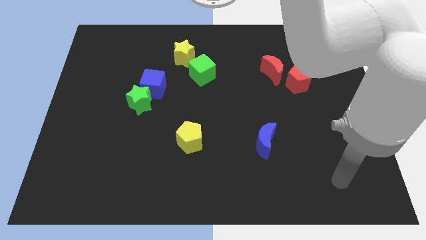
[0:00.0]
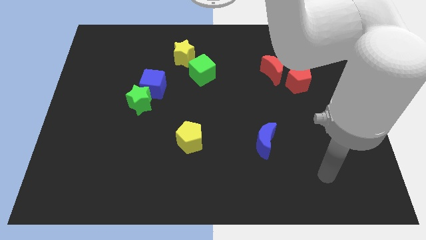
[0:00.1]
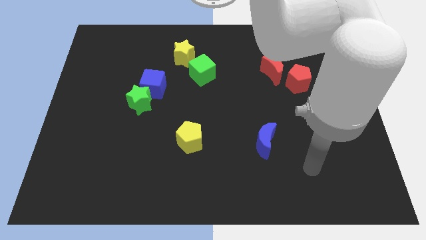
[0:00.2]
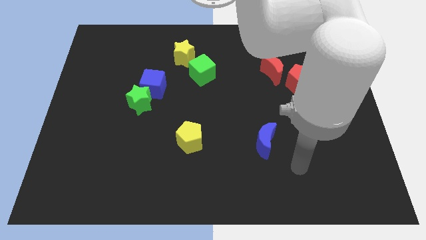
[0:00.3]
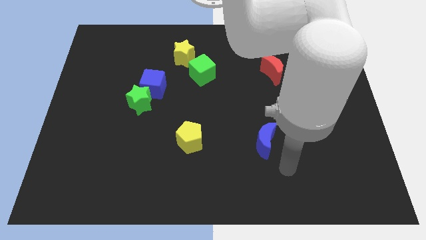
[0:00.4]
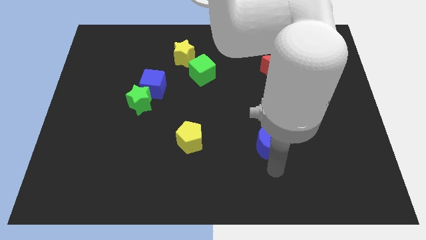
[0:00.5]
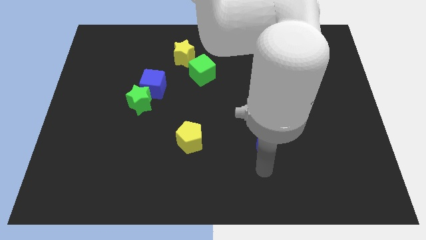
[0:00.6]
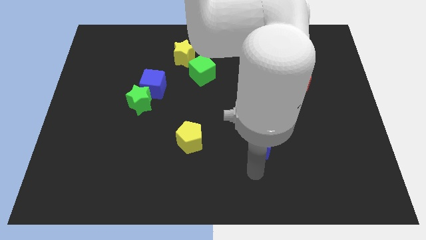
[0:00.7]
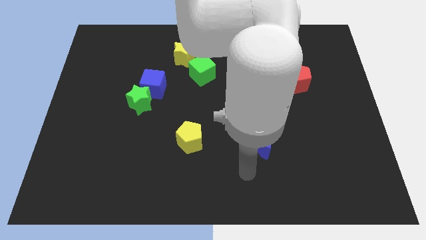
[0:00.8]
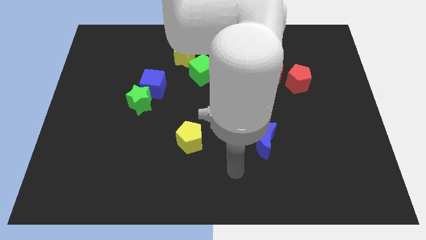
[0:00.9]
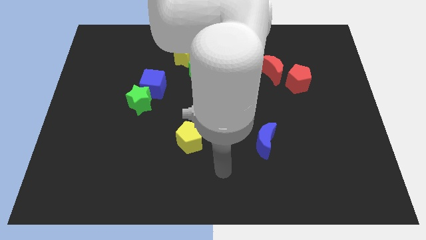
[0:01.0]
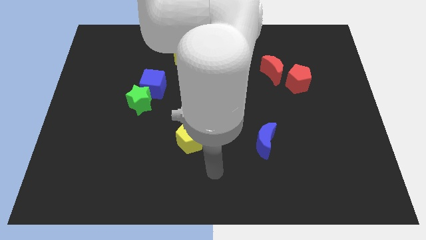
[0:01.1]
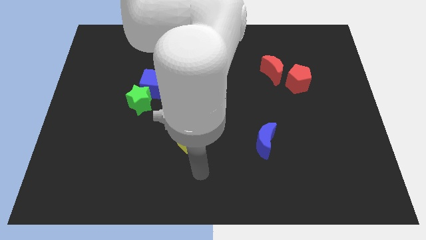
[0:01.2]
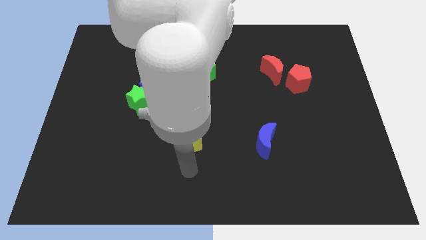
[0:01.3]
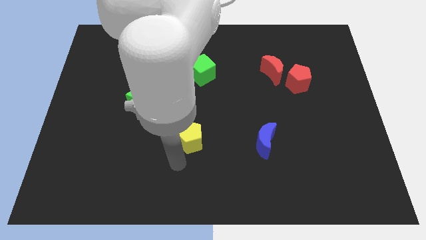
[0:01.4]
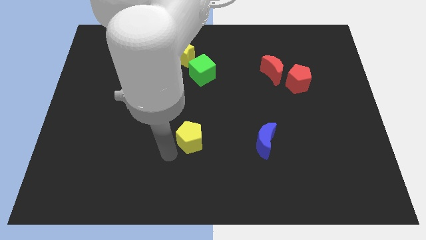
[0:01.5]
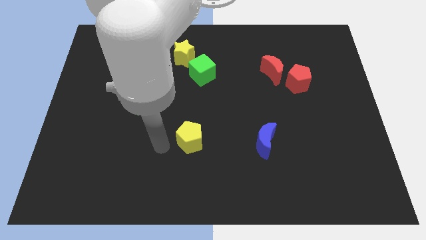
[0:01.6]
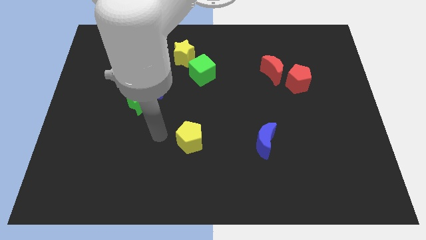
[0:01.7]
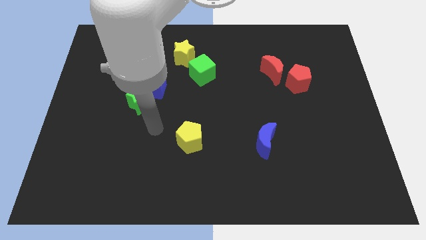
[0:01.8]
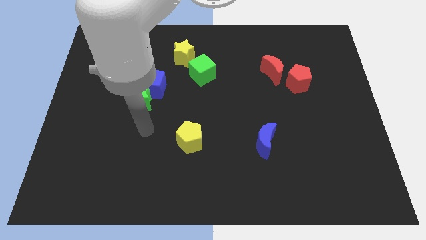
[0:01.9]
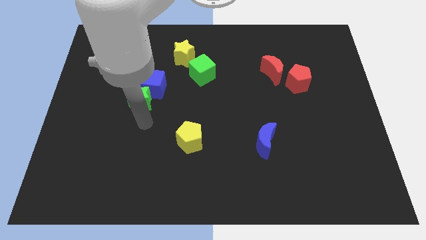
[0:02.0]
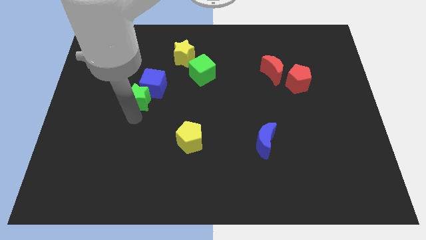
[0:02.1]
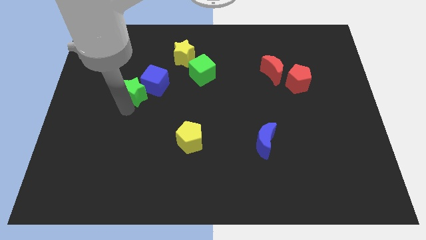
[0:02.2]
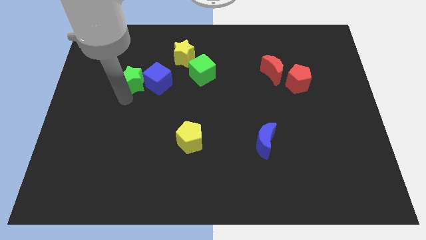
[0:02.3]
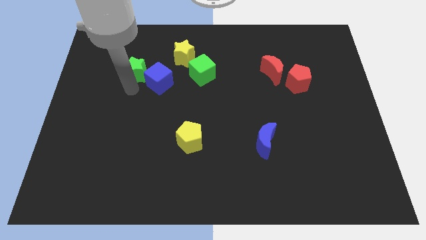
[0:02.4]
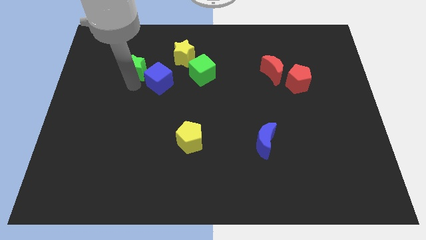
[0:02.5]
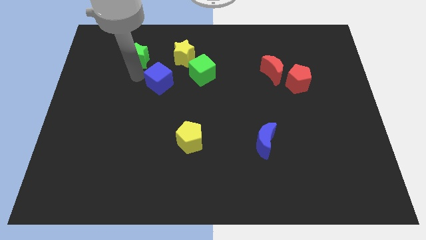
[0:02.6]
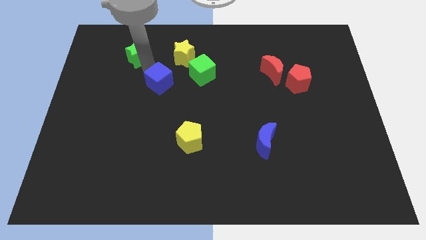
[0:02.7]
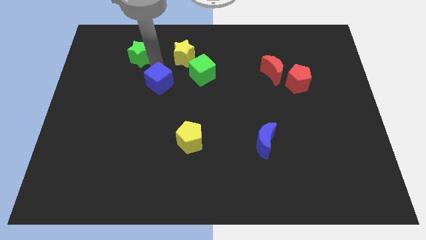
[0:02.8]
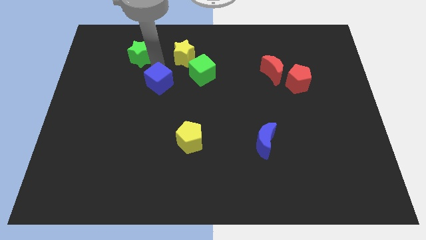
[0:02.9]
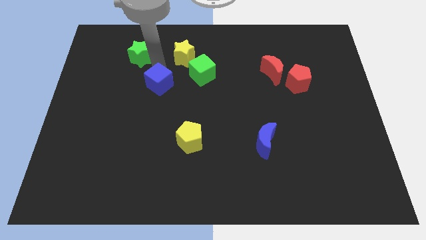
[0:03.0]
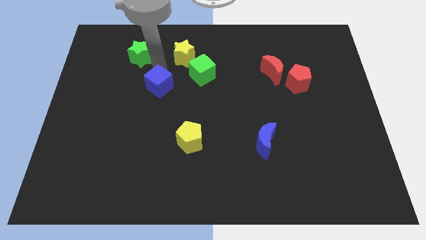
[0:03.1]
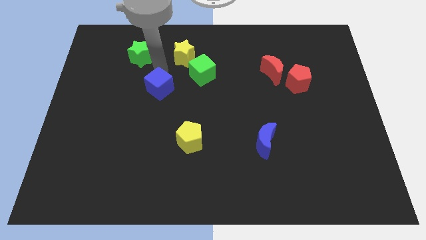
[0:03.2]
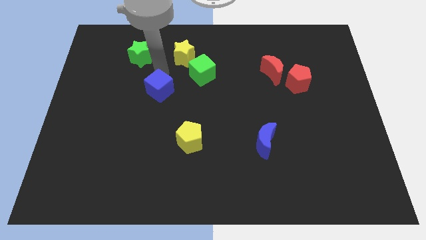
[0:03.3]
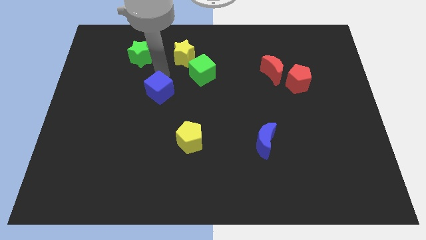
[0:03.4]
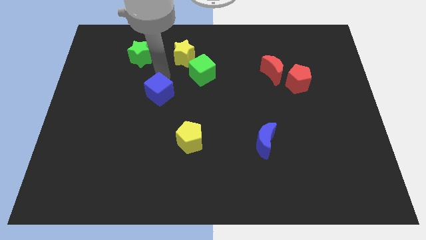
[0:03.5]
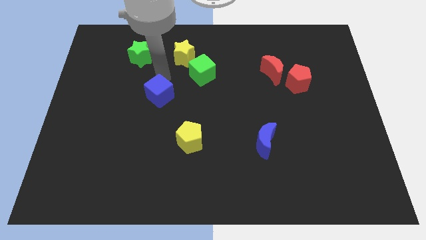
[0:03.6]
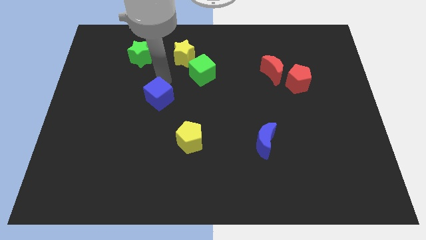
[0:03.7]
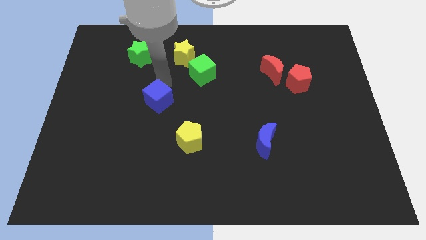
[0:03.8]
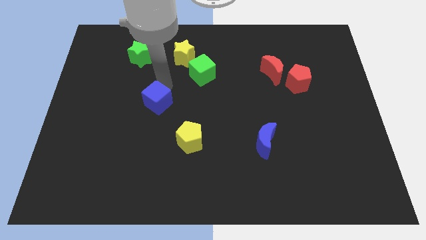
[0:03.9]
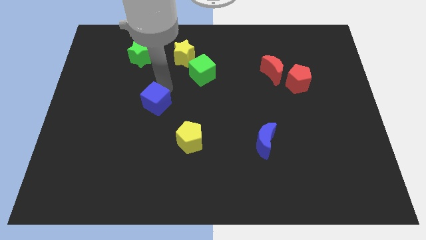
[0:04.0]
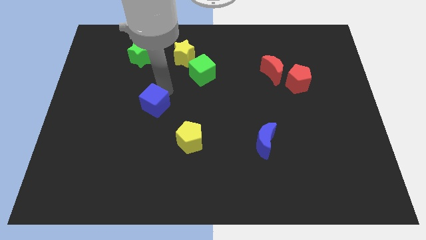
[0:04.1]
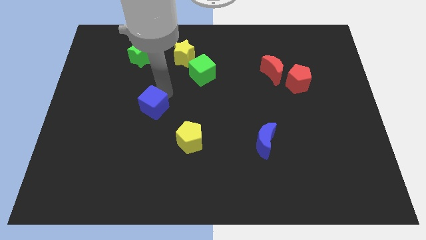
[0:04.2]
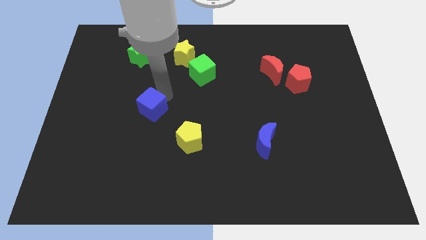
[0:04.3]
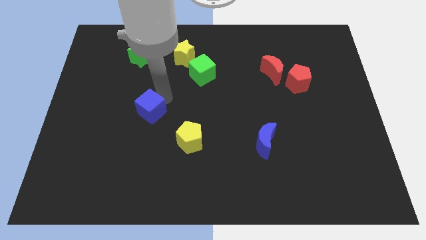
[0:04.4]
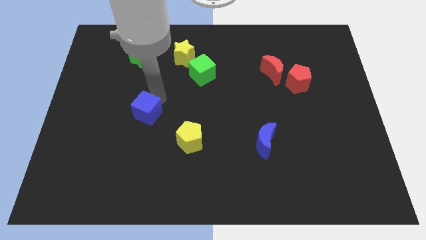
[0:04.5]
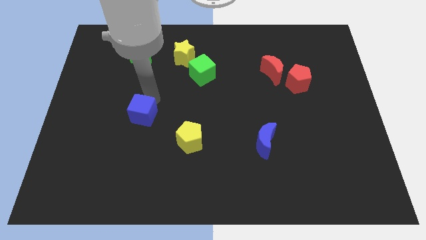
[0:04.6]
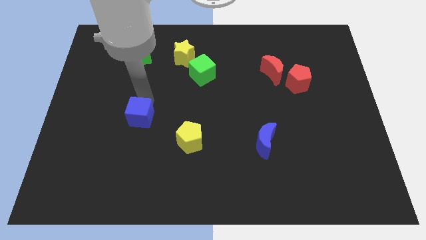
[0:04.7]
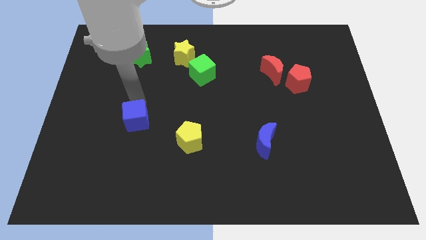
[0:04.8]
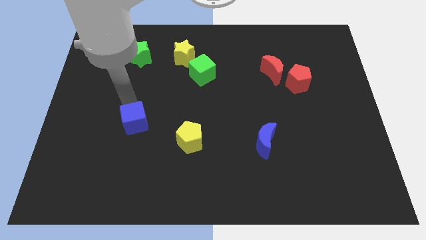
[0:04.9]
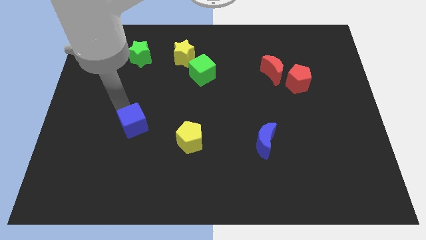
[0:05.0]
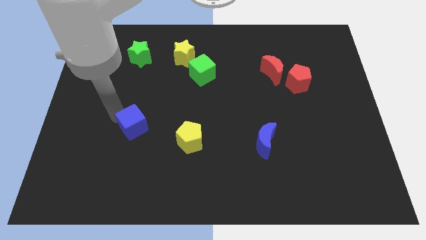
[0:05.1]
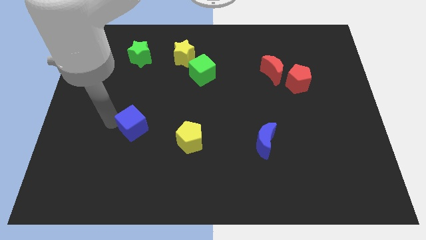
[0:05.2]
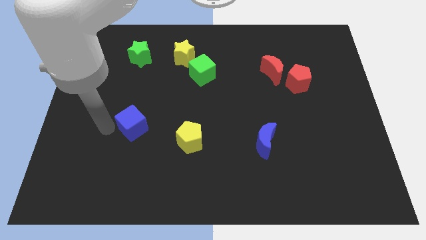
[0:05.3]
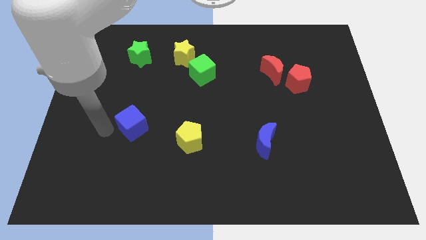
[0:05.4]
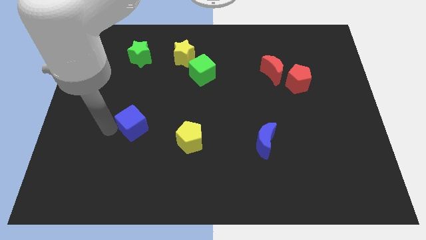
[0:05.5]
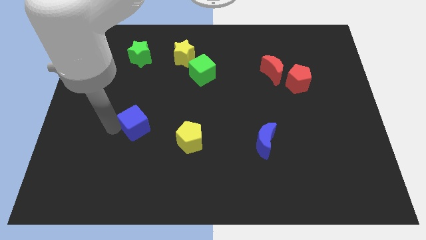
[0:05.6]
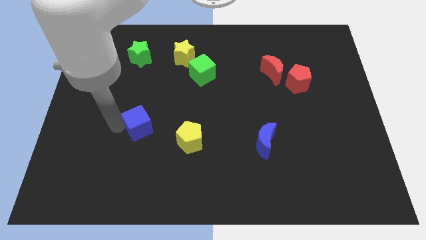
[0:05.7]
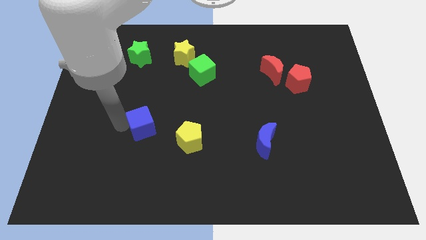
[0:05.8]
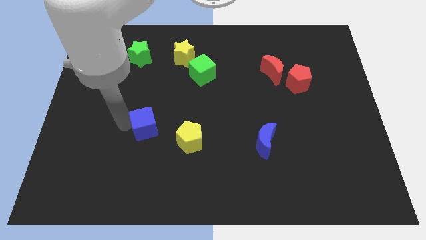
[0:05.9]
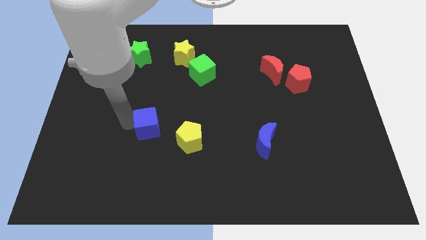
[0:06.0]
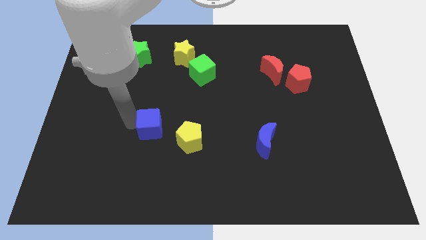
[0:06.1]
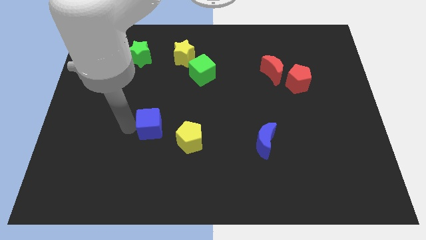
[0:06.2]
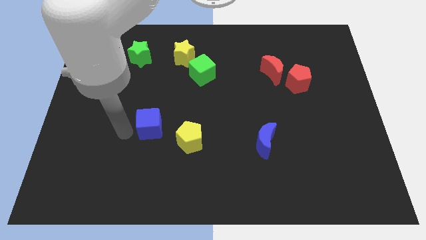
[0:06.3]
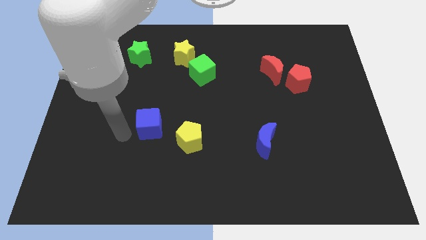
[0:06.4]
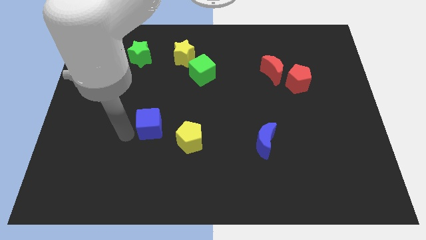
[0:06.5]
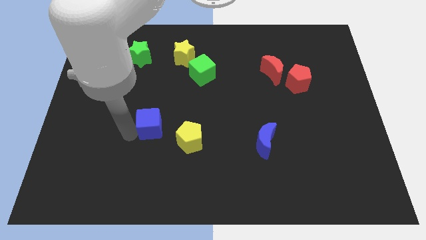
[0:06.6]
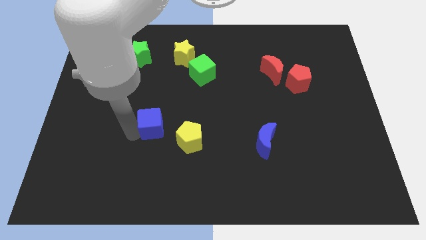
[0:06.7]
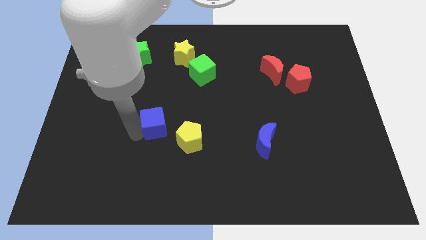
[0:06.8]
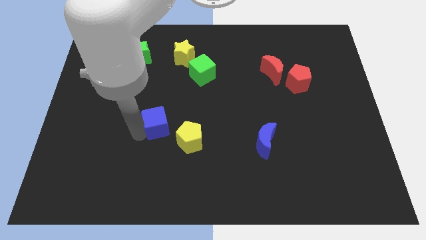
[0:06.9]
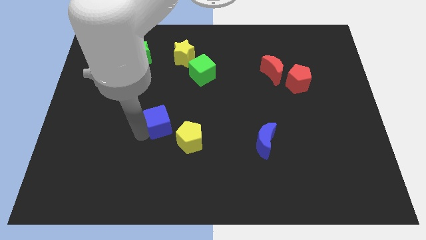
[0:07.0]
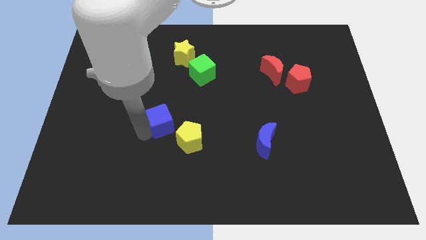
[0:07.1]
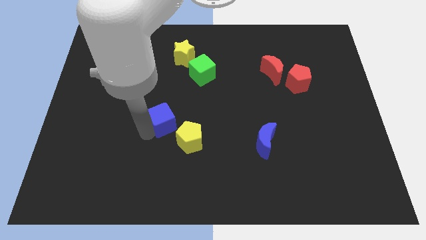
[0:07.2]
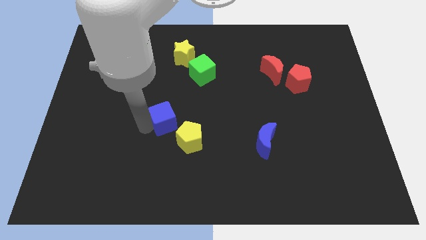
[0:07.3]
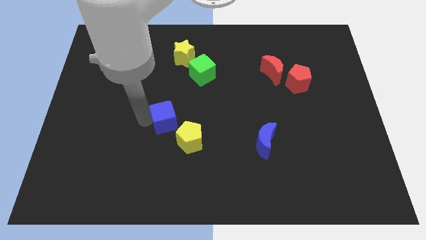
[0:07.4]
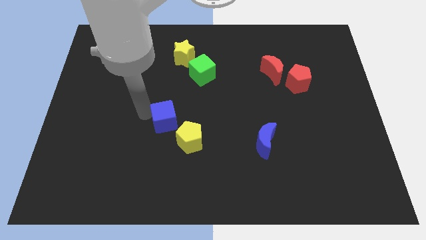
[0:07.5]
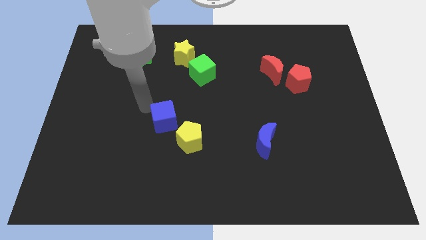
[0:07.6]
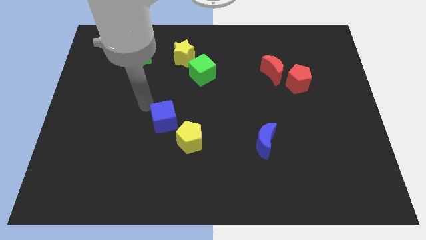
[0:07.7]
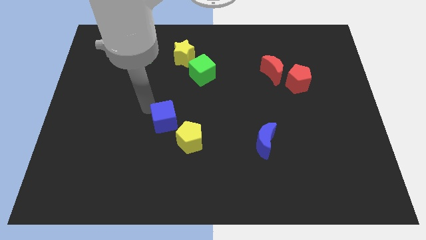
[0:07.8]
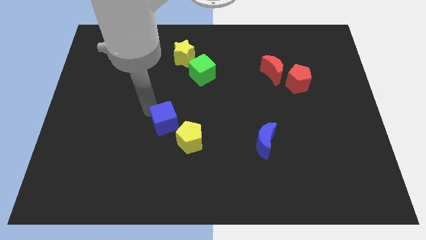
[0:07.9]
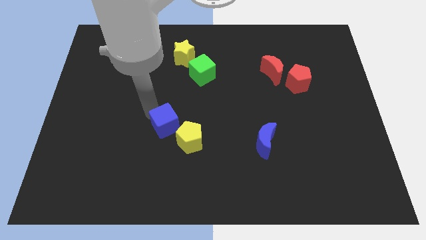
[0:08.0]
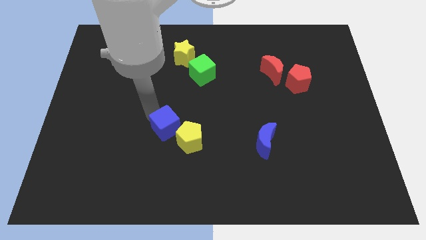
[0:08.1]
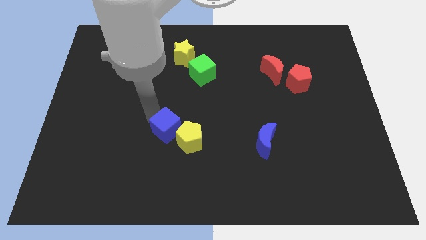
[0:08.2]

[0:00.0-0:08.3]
move the blue cube close to the yellow pentagon
